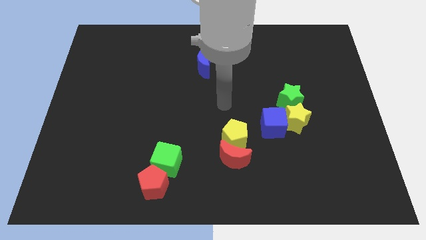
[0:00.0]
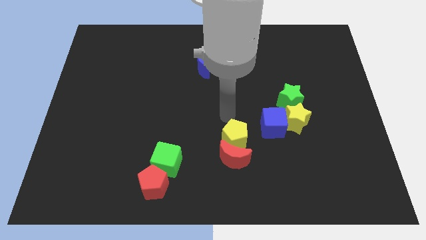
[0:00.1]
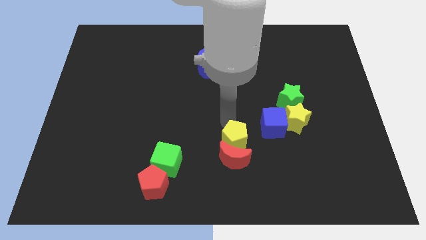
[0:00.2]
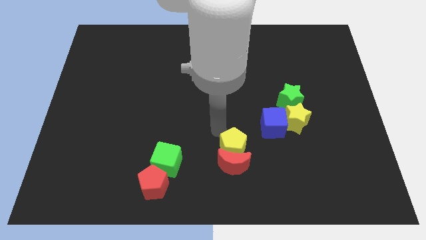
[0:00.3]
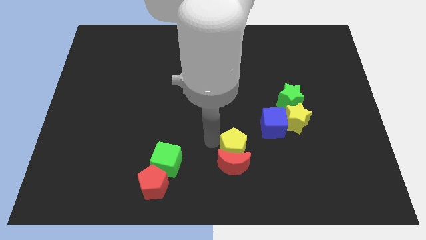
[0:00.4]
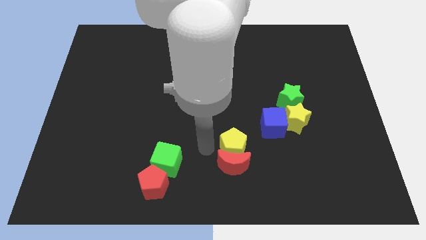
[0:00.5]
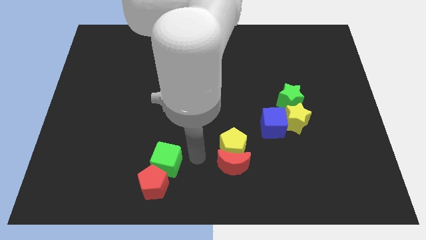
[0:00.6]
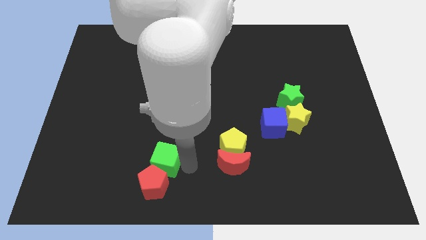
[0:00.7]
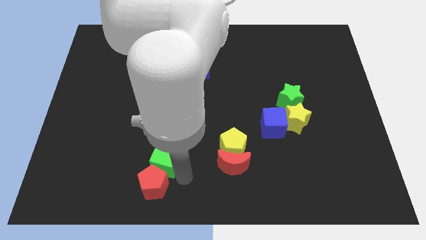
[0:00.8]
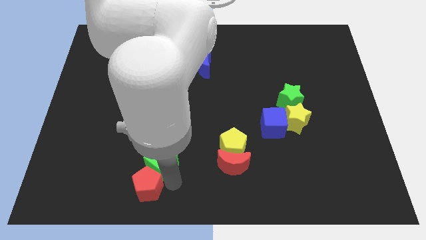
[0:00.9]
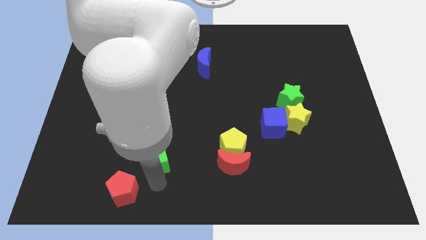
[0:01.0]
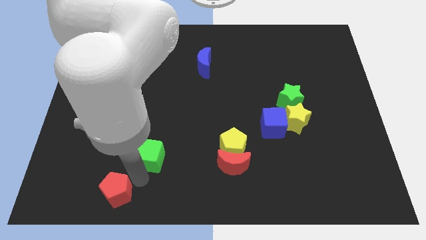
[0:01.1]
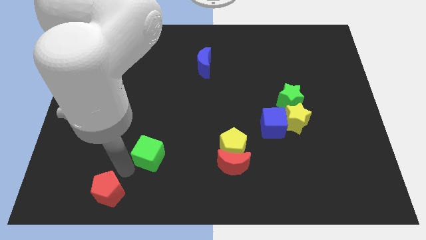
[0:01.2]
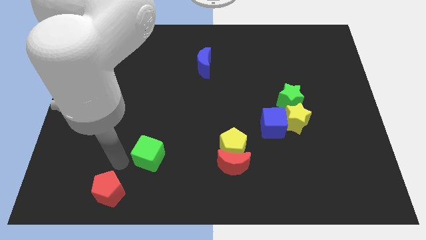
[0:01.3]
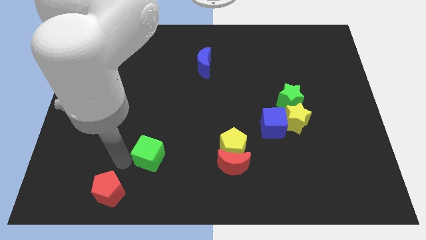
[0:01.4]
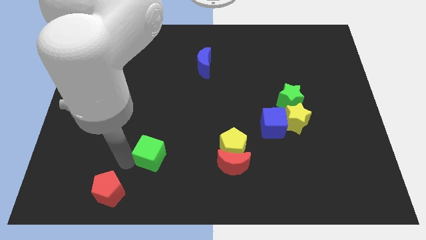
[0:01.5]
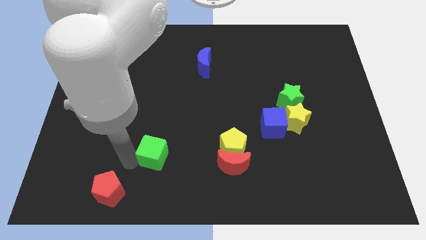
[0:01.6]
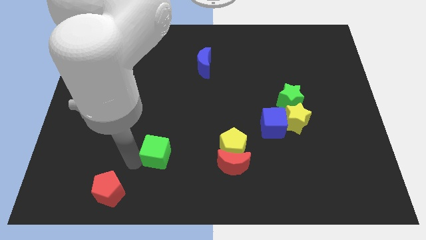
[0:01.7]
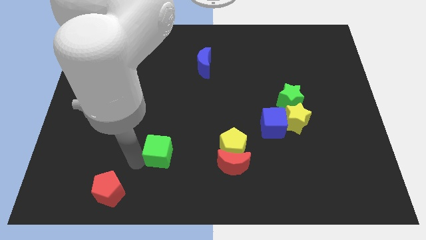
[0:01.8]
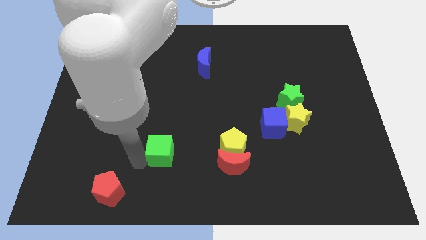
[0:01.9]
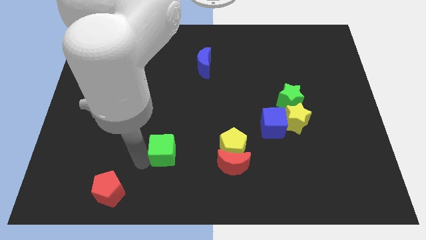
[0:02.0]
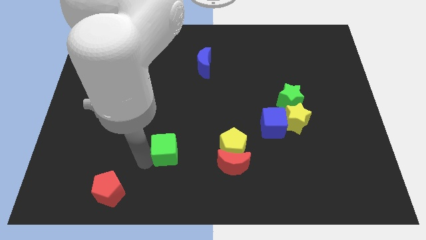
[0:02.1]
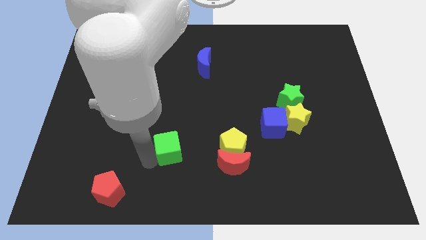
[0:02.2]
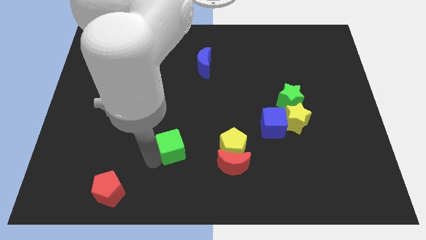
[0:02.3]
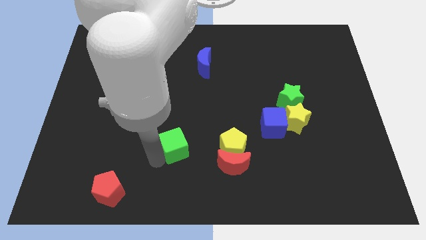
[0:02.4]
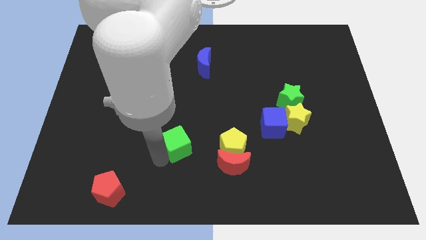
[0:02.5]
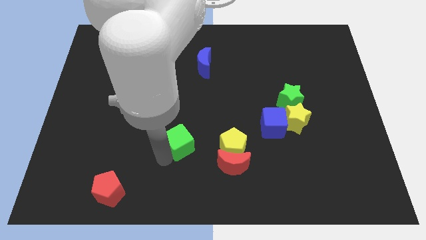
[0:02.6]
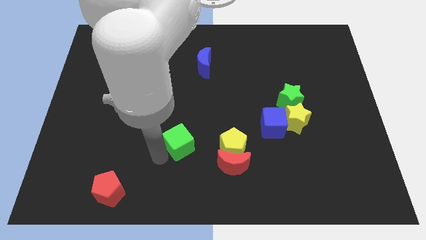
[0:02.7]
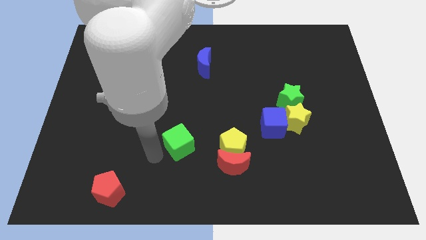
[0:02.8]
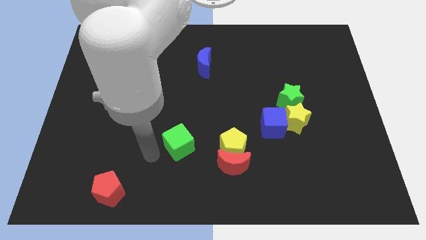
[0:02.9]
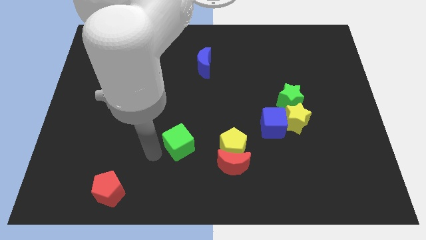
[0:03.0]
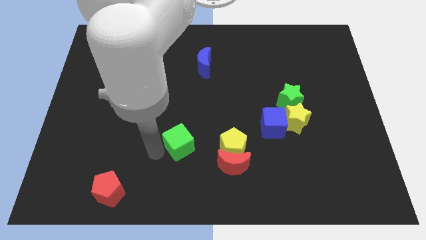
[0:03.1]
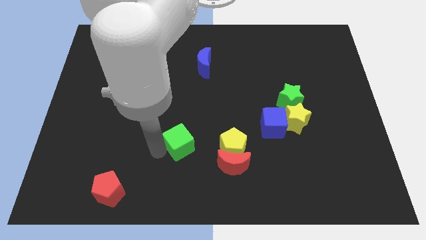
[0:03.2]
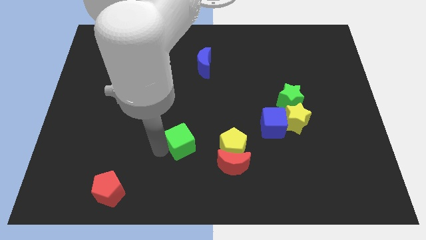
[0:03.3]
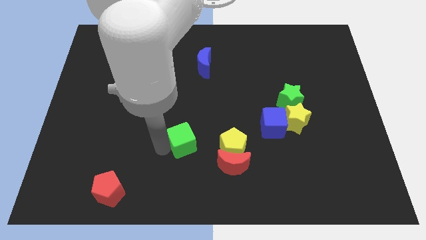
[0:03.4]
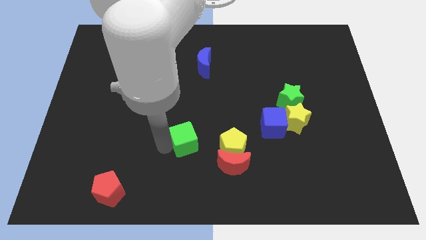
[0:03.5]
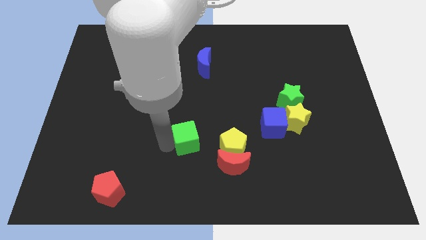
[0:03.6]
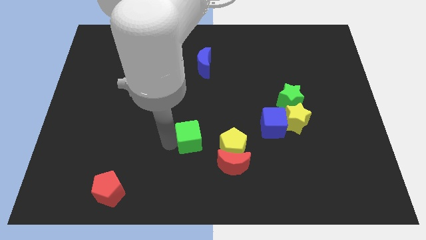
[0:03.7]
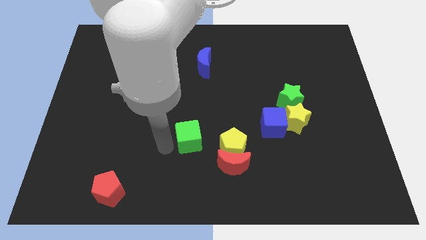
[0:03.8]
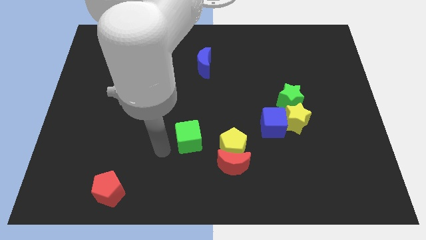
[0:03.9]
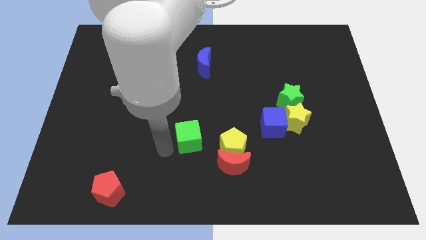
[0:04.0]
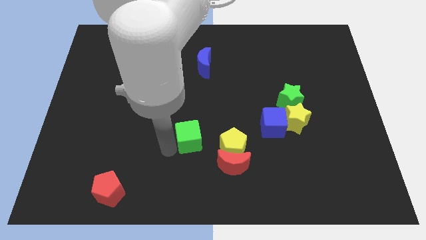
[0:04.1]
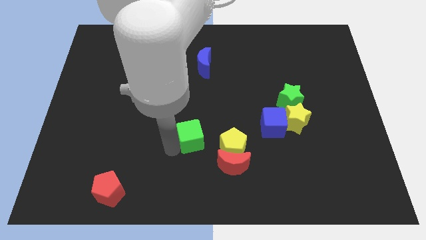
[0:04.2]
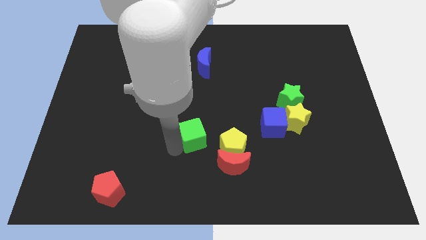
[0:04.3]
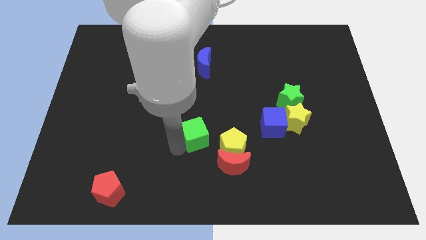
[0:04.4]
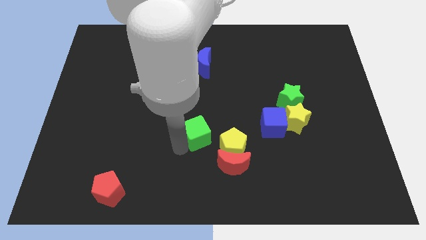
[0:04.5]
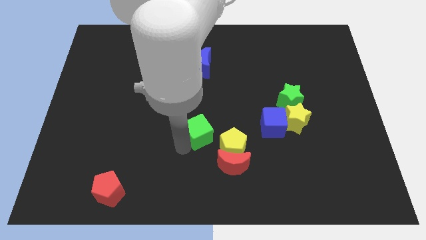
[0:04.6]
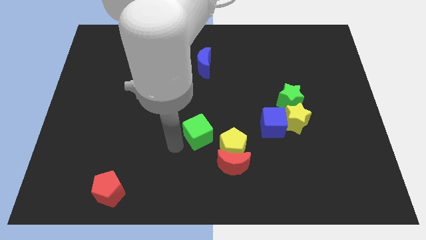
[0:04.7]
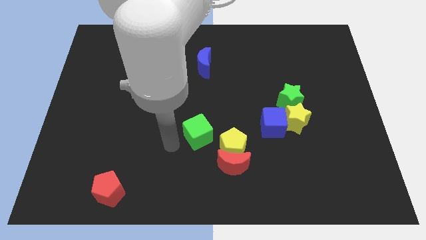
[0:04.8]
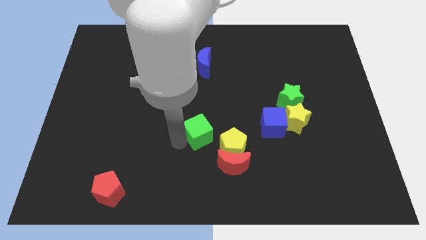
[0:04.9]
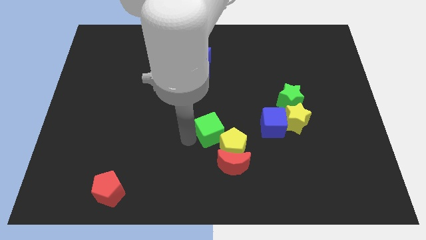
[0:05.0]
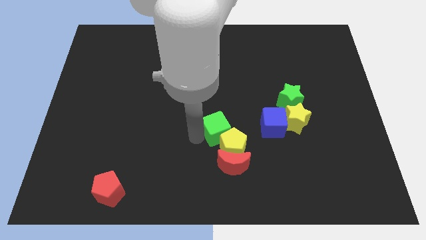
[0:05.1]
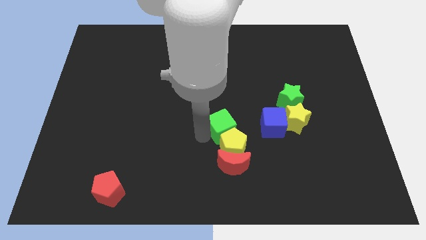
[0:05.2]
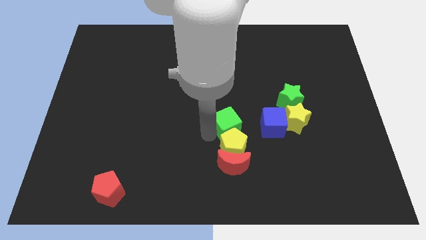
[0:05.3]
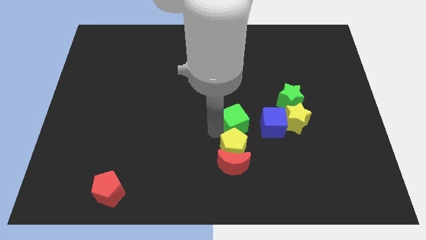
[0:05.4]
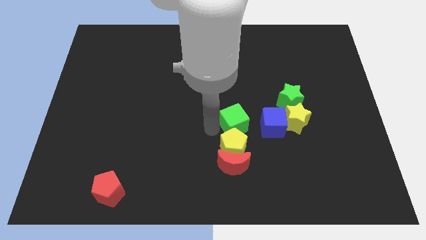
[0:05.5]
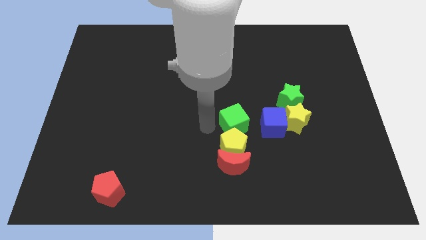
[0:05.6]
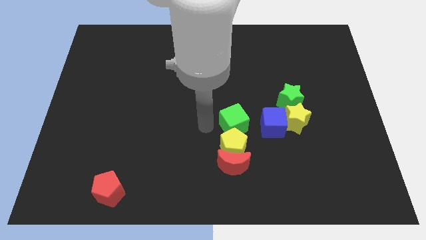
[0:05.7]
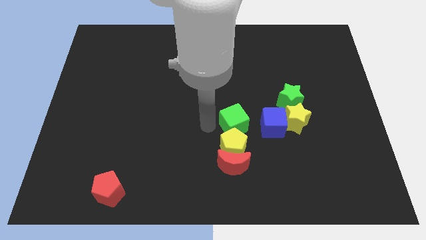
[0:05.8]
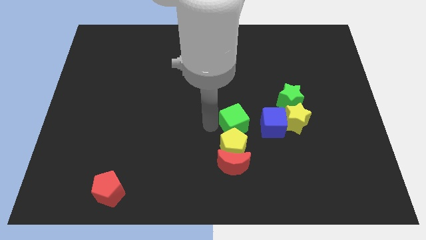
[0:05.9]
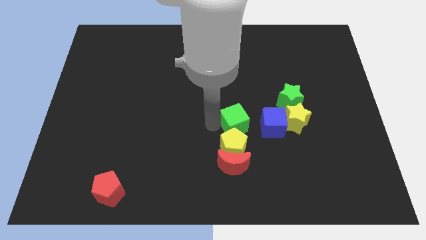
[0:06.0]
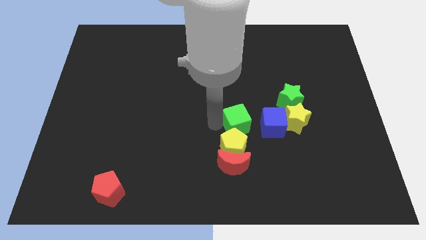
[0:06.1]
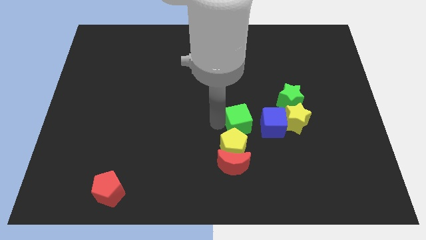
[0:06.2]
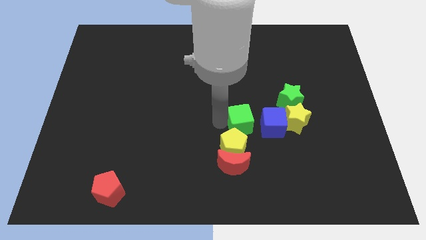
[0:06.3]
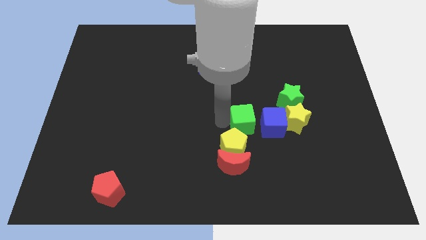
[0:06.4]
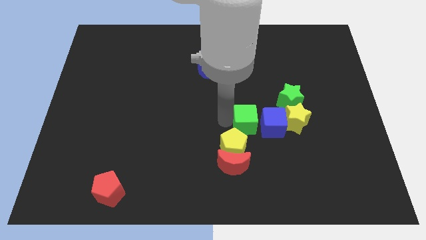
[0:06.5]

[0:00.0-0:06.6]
move the green cube next to the blue cube

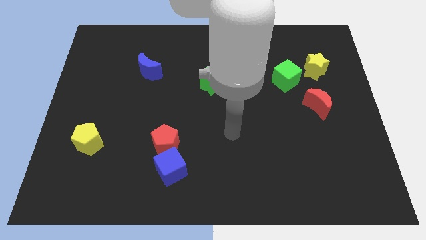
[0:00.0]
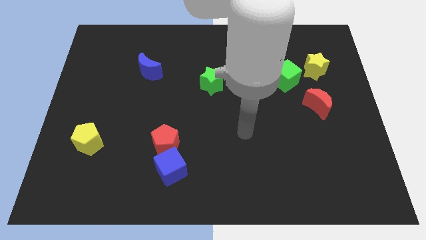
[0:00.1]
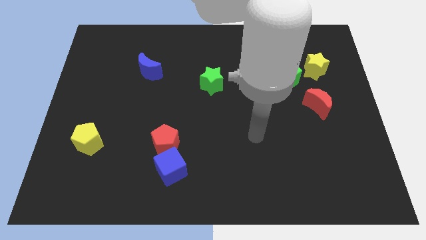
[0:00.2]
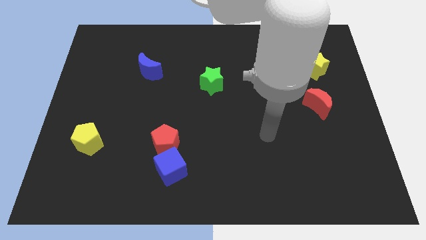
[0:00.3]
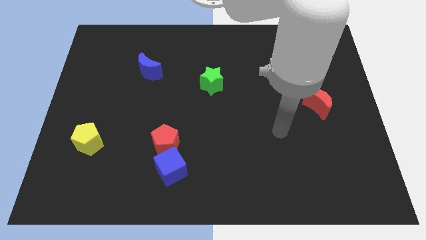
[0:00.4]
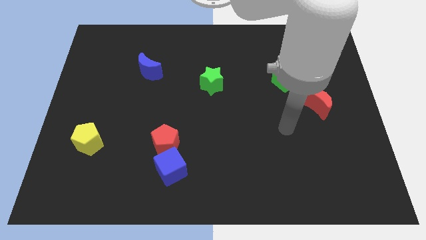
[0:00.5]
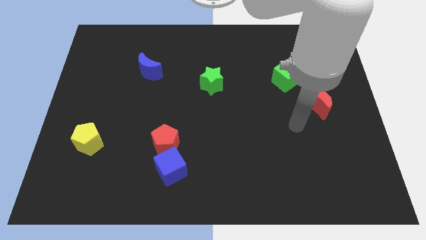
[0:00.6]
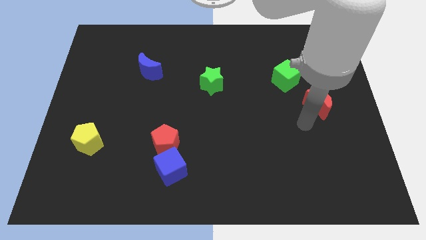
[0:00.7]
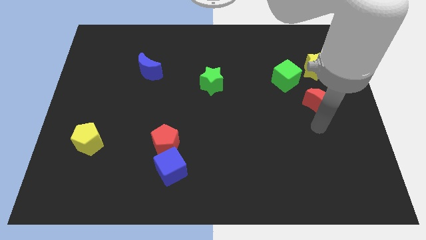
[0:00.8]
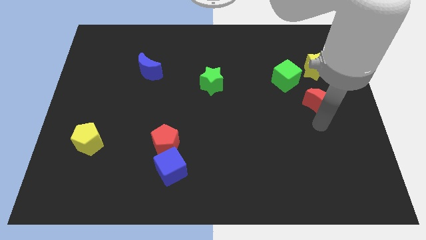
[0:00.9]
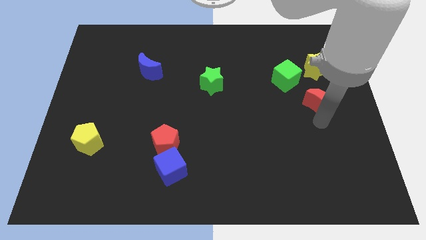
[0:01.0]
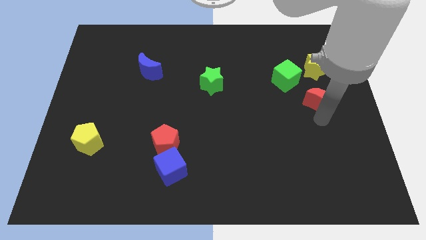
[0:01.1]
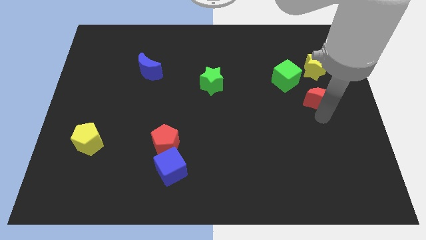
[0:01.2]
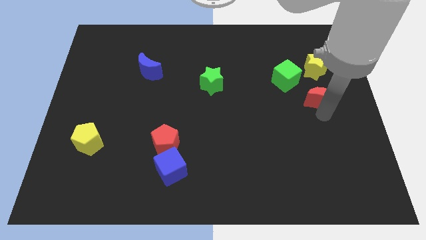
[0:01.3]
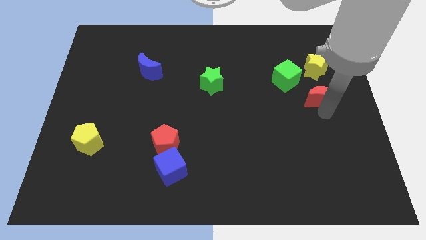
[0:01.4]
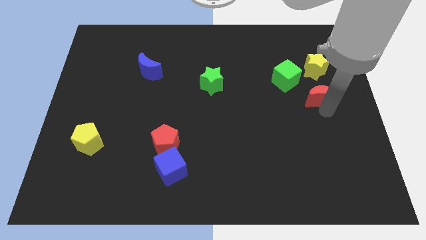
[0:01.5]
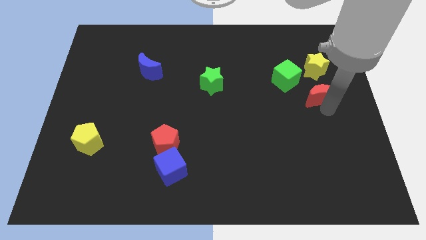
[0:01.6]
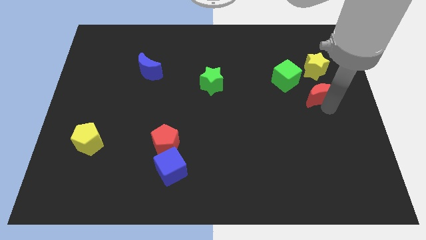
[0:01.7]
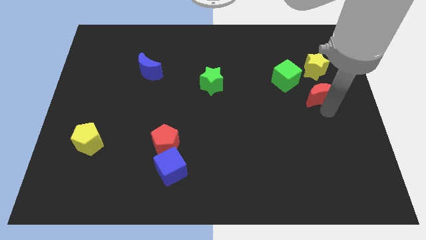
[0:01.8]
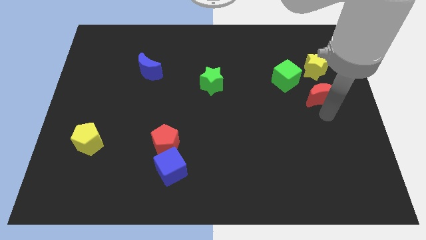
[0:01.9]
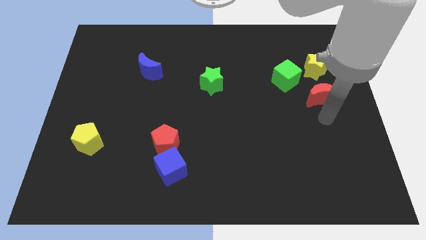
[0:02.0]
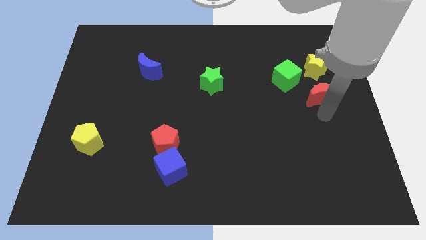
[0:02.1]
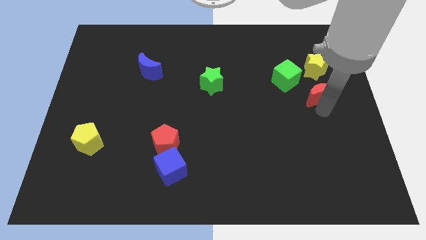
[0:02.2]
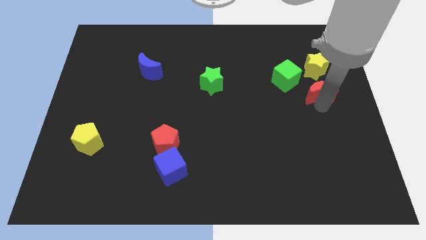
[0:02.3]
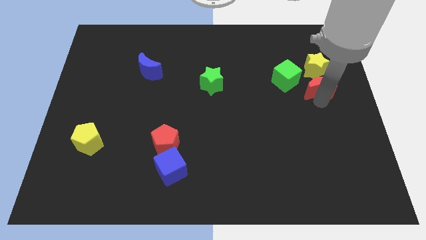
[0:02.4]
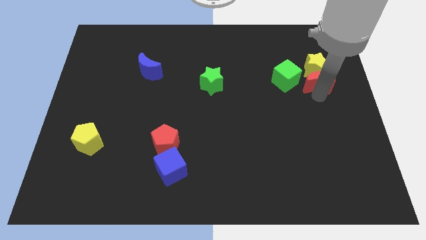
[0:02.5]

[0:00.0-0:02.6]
put the red moon next to the yellow star
